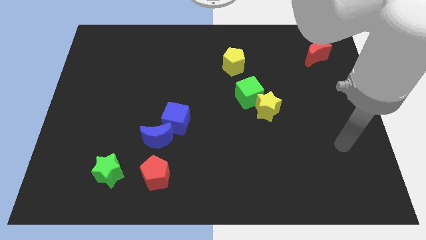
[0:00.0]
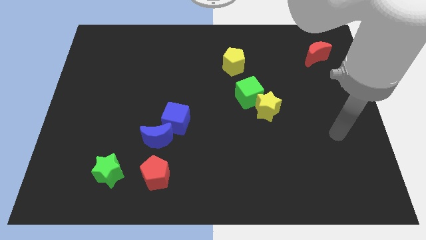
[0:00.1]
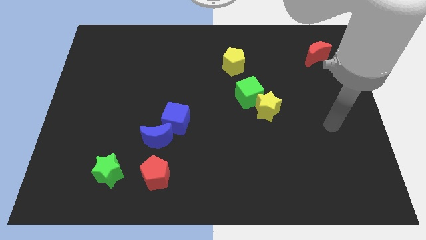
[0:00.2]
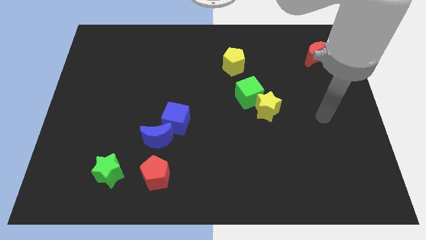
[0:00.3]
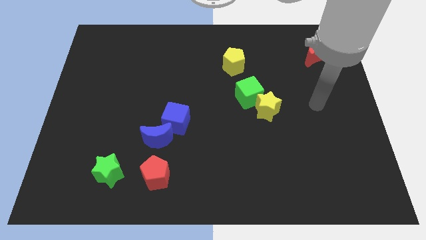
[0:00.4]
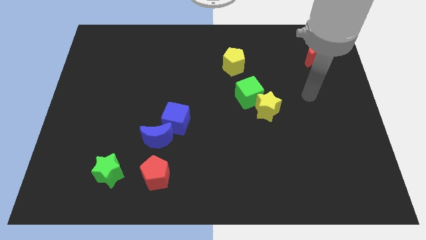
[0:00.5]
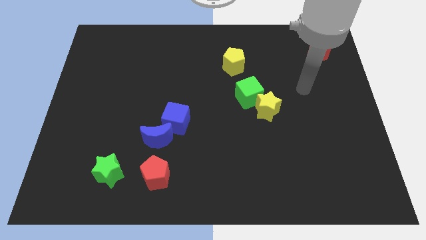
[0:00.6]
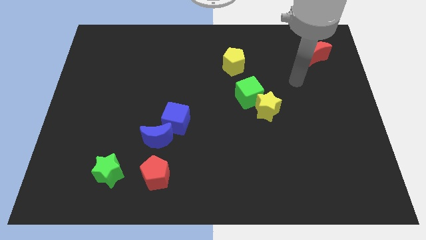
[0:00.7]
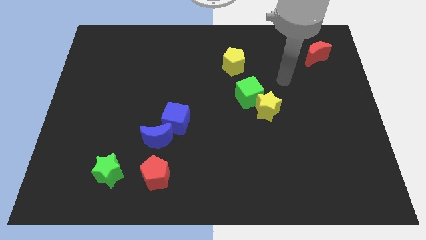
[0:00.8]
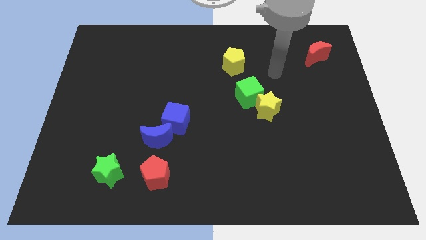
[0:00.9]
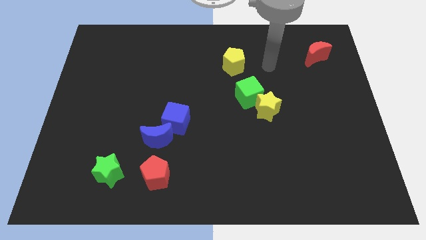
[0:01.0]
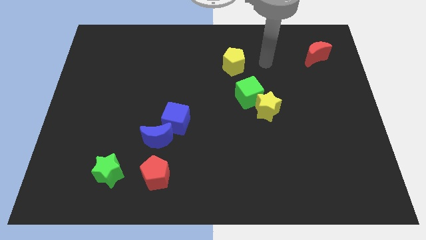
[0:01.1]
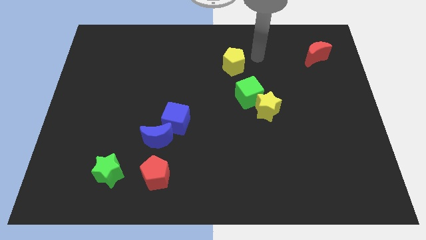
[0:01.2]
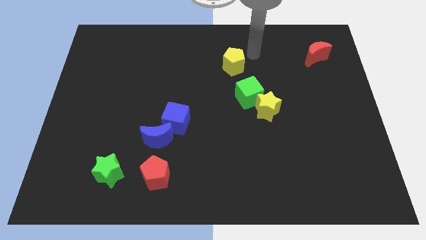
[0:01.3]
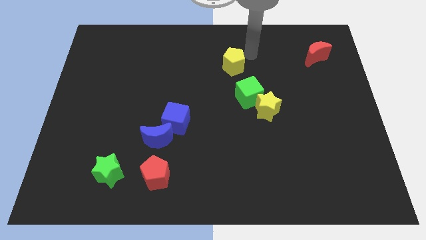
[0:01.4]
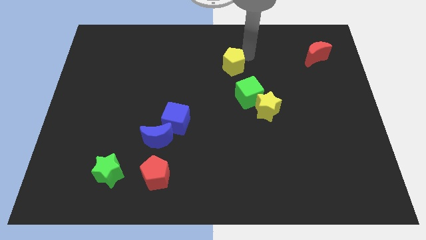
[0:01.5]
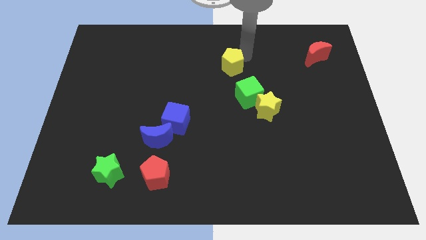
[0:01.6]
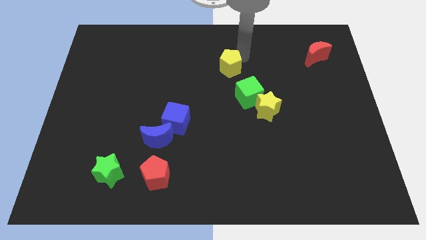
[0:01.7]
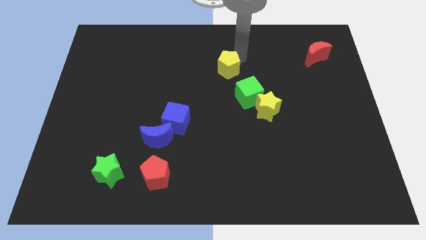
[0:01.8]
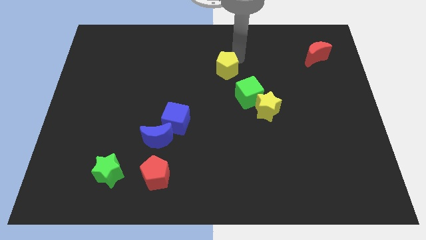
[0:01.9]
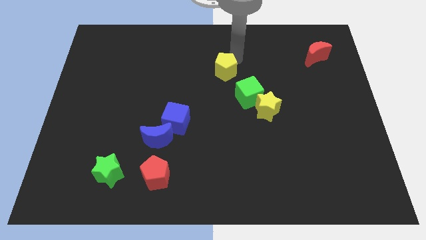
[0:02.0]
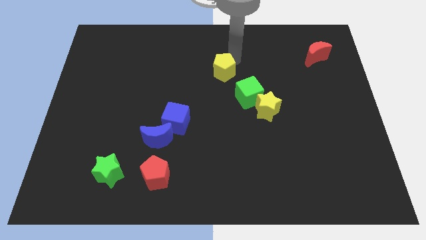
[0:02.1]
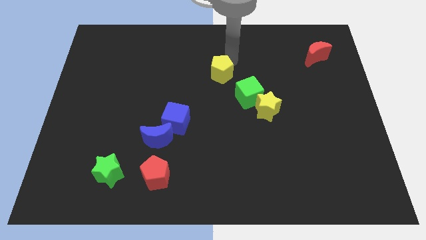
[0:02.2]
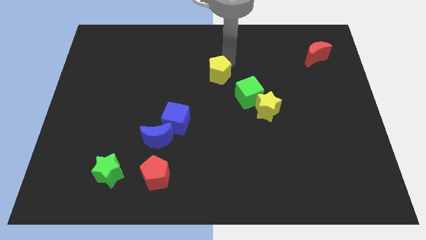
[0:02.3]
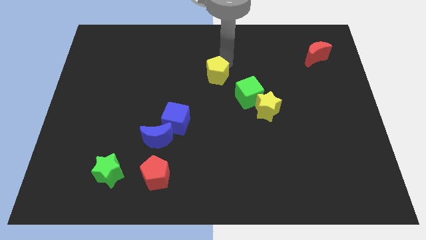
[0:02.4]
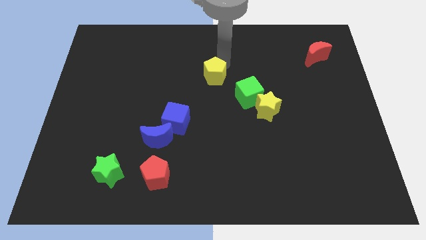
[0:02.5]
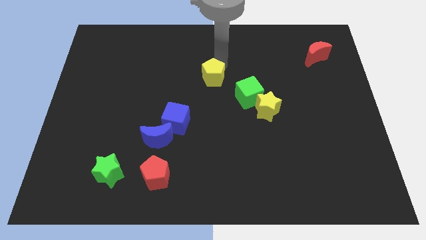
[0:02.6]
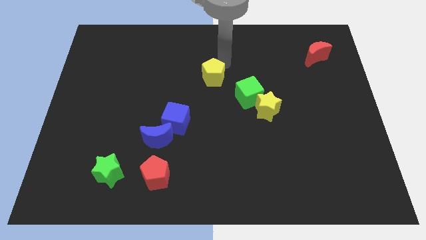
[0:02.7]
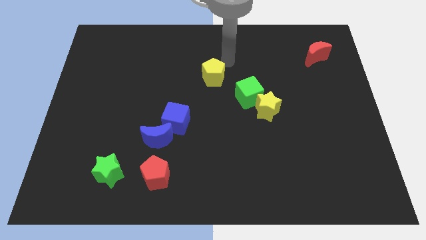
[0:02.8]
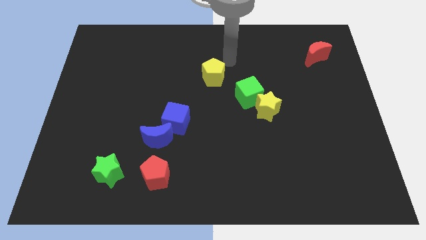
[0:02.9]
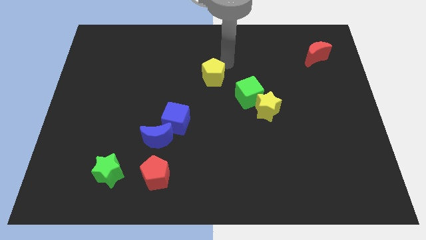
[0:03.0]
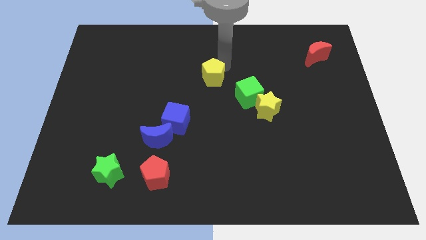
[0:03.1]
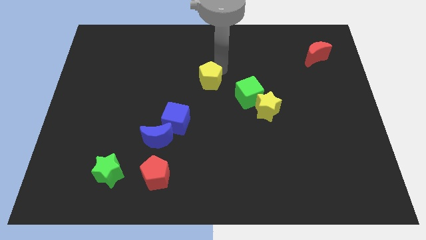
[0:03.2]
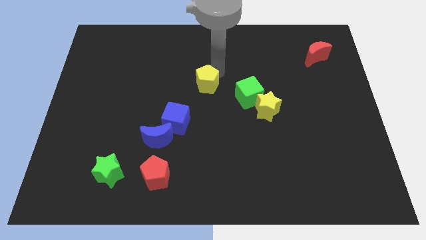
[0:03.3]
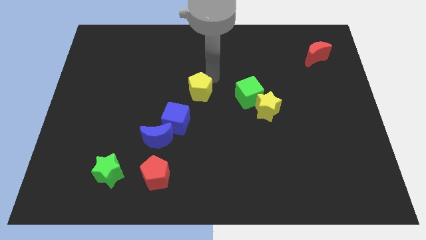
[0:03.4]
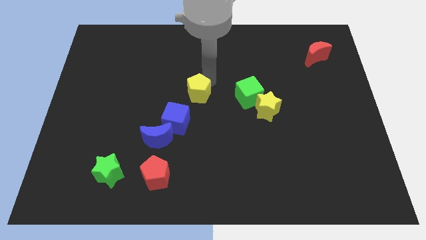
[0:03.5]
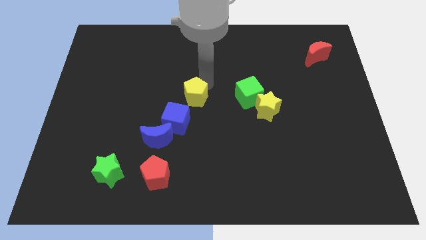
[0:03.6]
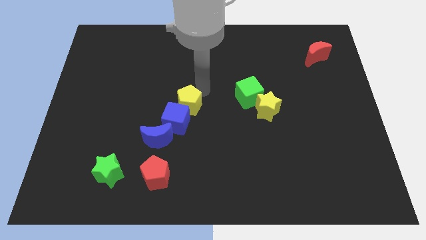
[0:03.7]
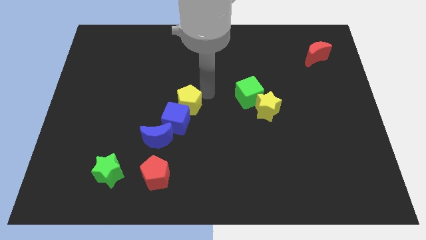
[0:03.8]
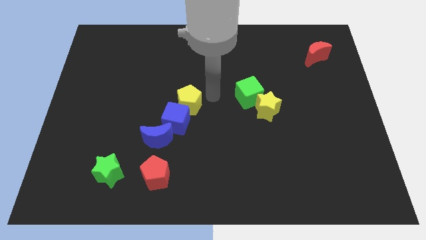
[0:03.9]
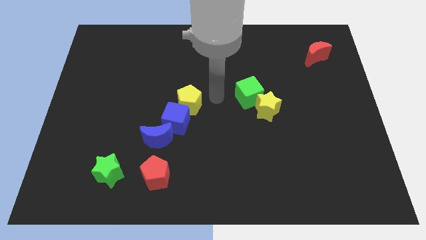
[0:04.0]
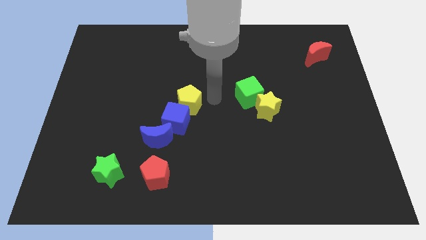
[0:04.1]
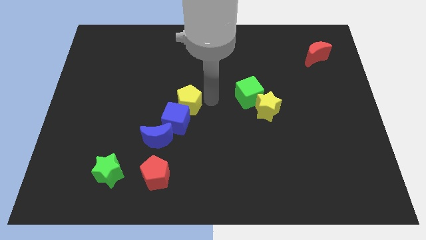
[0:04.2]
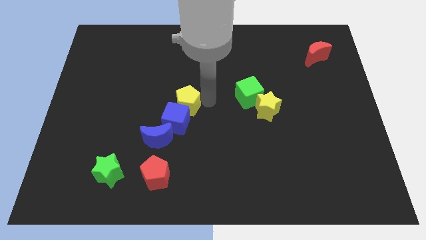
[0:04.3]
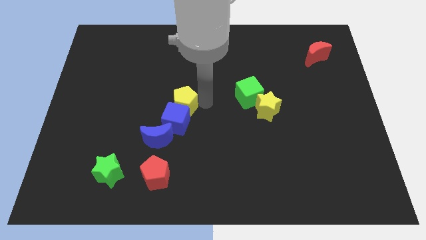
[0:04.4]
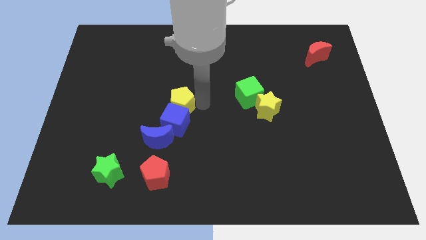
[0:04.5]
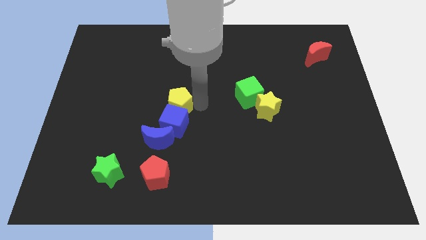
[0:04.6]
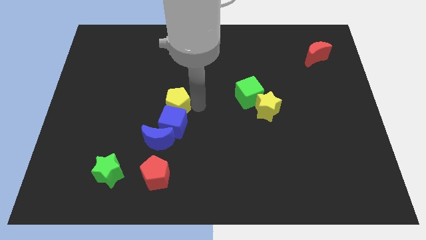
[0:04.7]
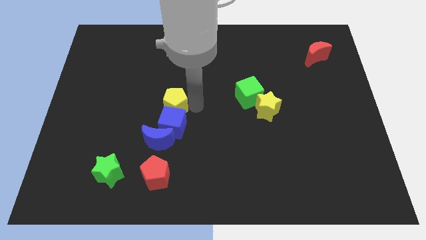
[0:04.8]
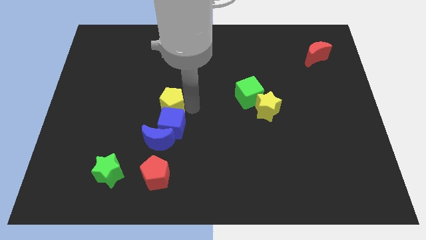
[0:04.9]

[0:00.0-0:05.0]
slide the yellow pentagon diagonally down and left

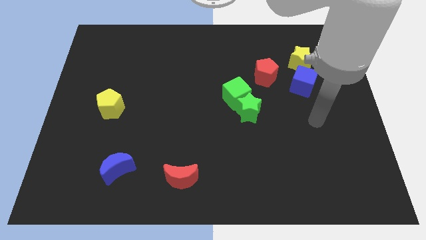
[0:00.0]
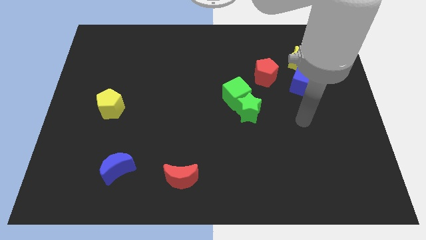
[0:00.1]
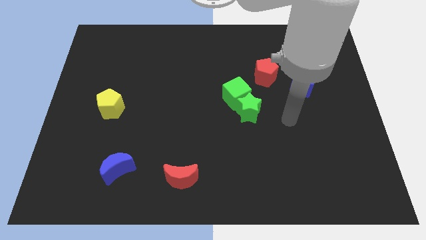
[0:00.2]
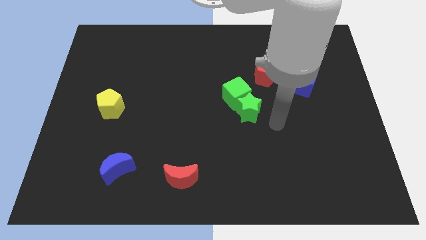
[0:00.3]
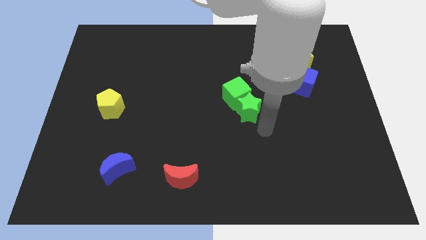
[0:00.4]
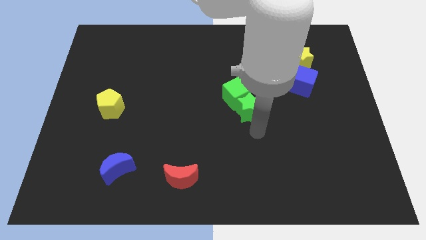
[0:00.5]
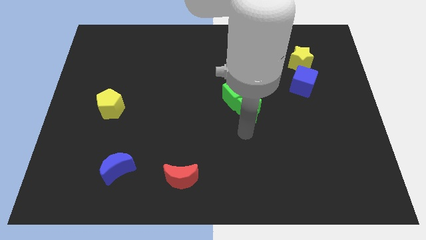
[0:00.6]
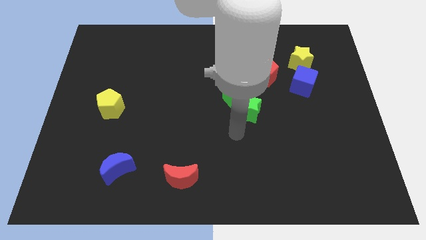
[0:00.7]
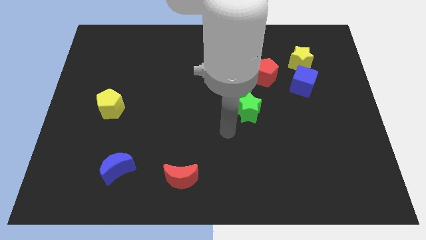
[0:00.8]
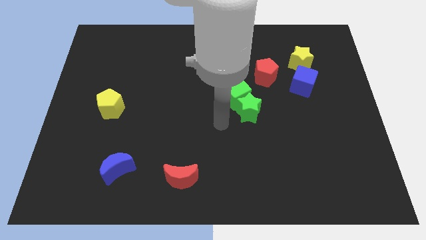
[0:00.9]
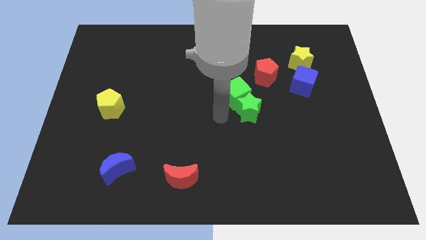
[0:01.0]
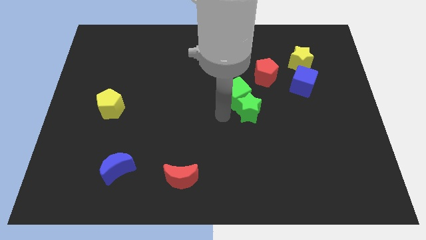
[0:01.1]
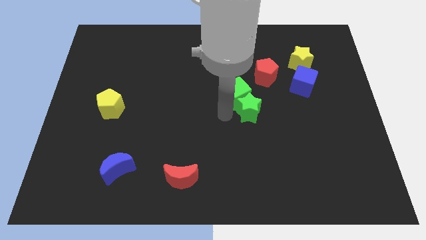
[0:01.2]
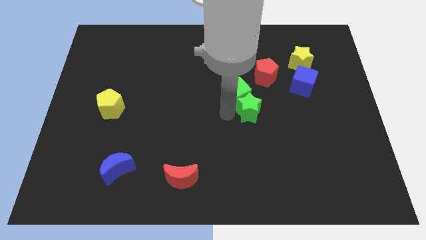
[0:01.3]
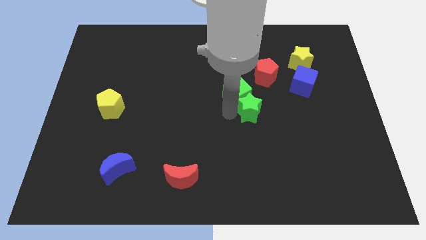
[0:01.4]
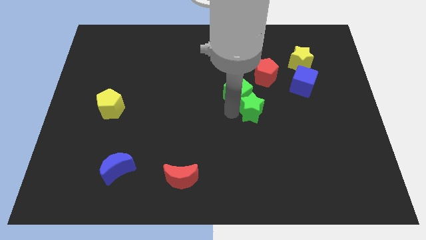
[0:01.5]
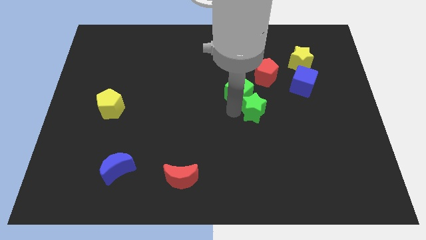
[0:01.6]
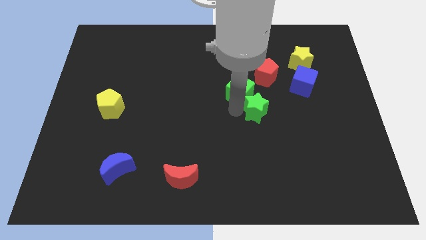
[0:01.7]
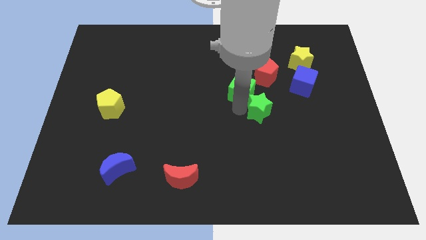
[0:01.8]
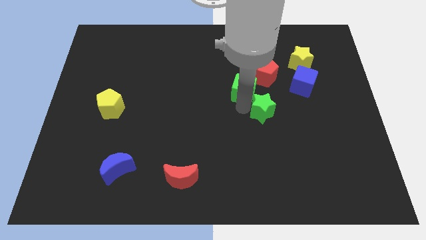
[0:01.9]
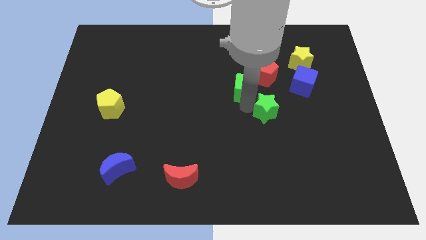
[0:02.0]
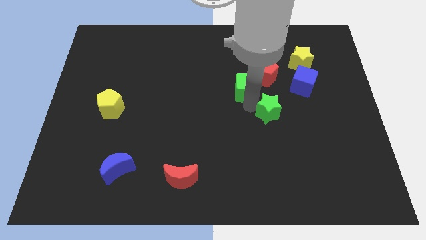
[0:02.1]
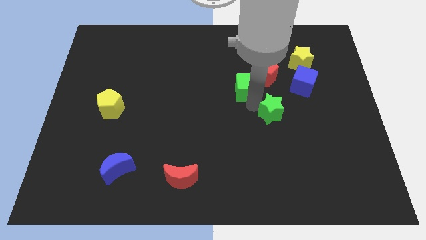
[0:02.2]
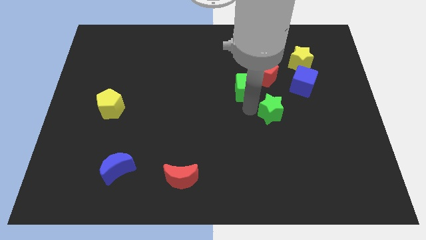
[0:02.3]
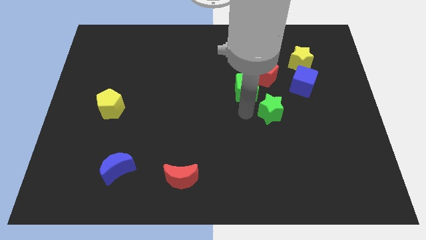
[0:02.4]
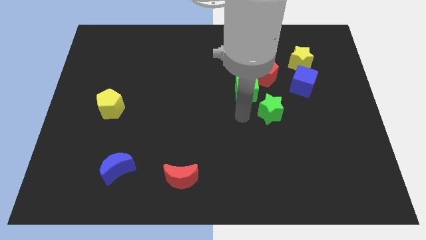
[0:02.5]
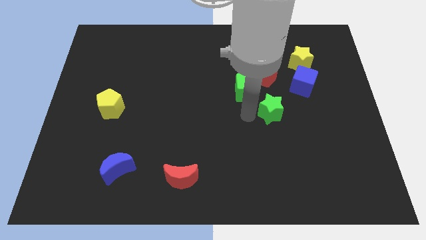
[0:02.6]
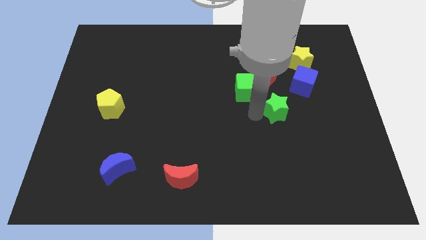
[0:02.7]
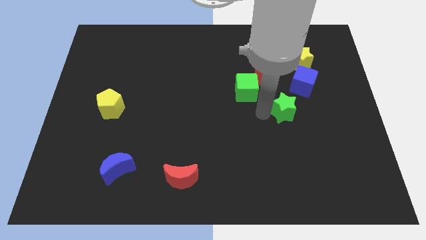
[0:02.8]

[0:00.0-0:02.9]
slide the green star to the right a bit
